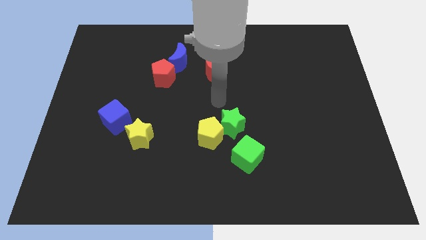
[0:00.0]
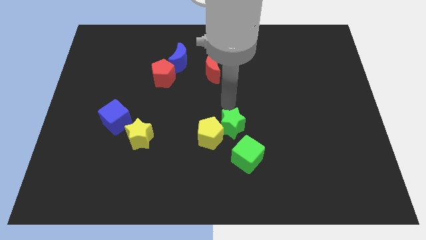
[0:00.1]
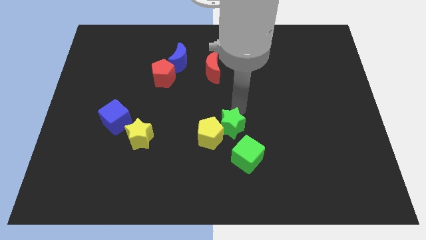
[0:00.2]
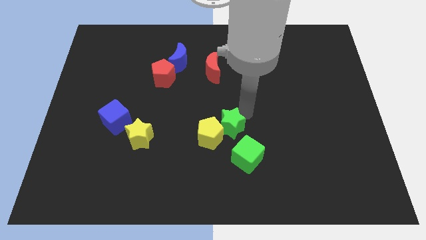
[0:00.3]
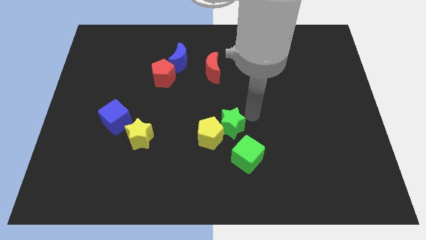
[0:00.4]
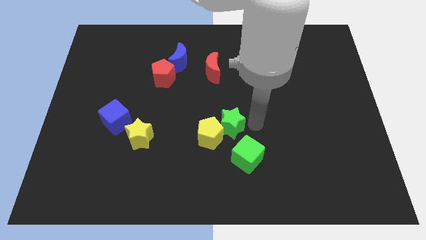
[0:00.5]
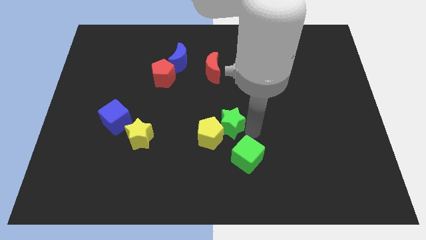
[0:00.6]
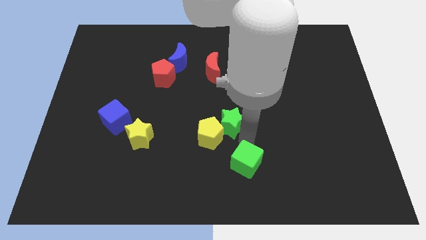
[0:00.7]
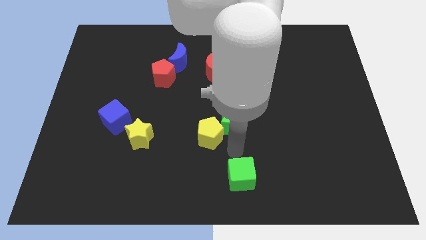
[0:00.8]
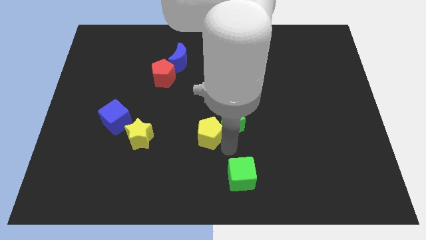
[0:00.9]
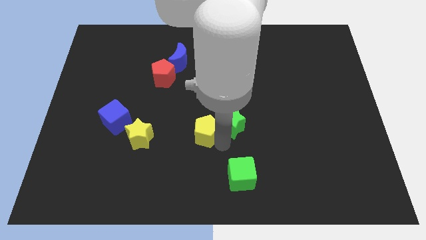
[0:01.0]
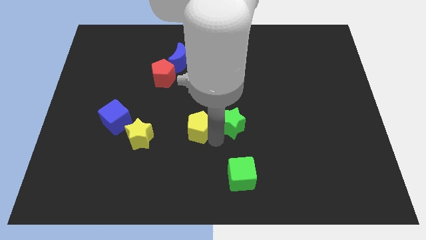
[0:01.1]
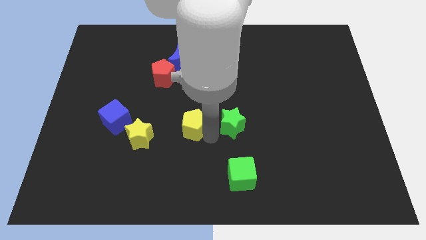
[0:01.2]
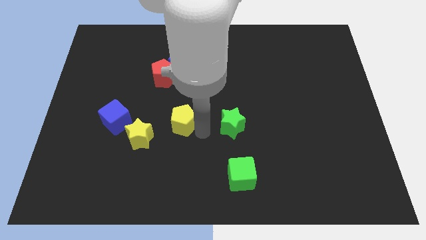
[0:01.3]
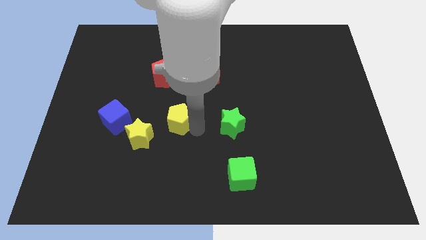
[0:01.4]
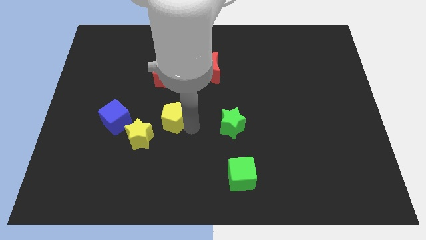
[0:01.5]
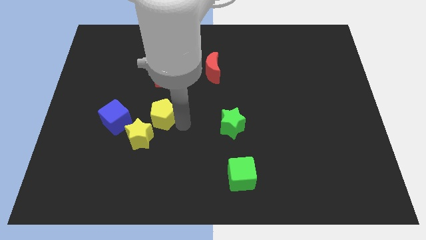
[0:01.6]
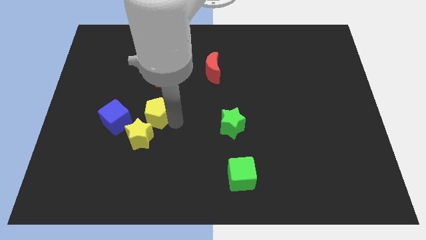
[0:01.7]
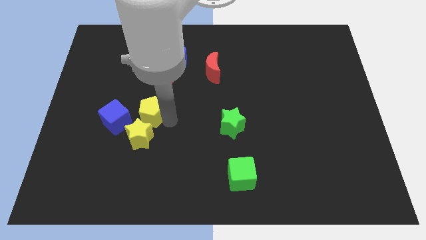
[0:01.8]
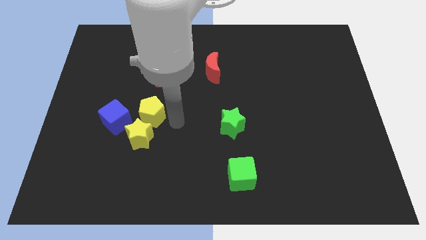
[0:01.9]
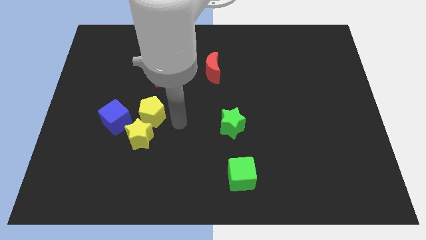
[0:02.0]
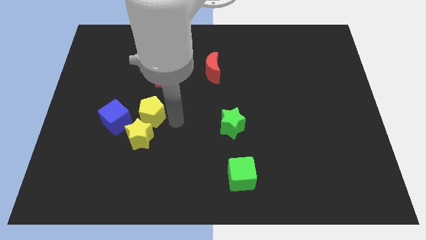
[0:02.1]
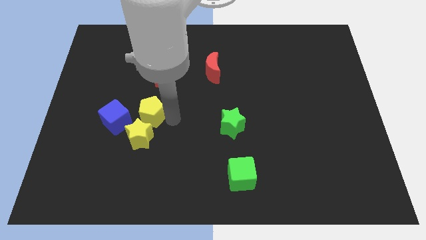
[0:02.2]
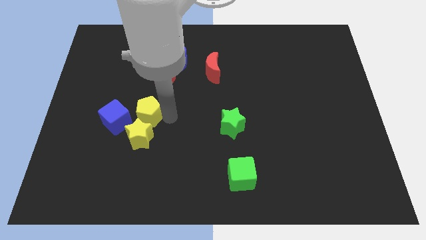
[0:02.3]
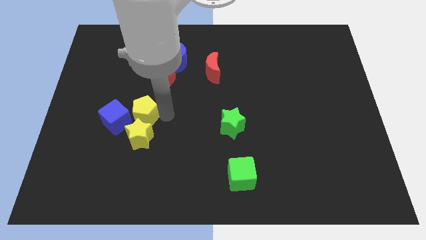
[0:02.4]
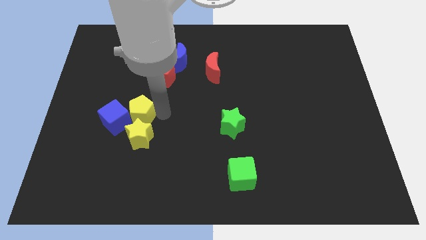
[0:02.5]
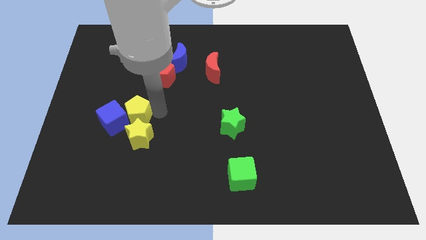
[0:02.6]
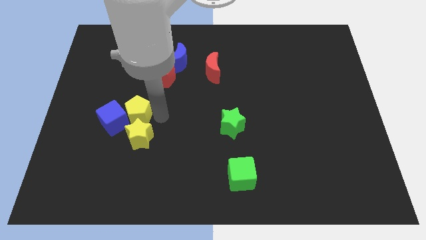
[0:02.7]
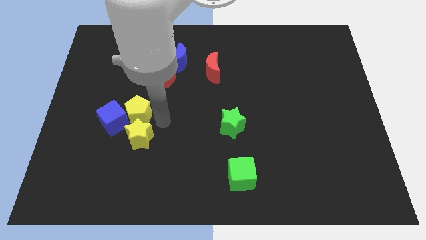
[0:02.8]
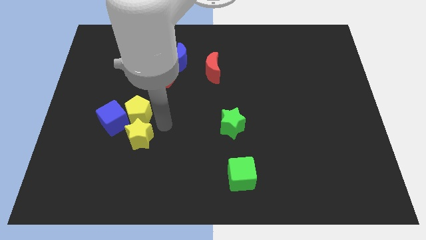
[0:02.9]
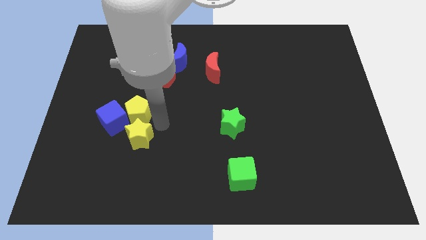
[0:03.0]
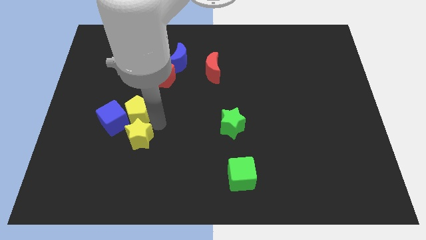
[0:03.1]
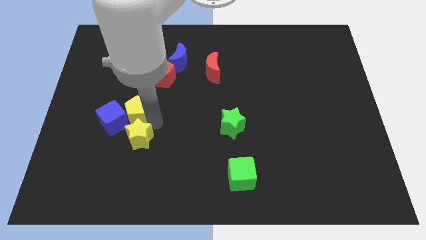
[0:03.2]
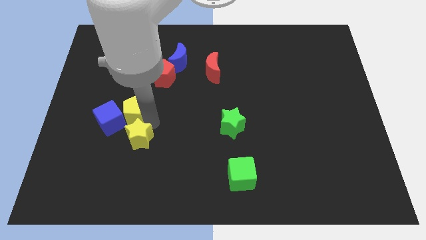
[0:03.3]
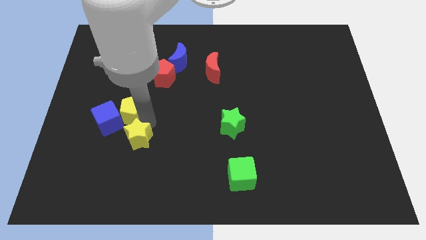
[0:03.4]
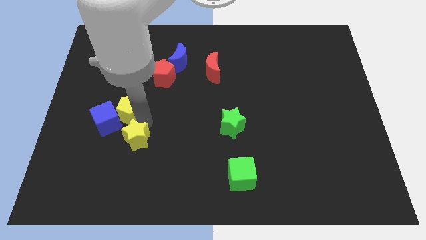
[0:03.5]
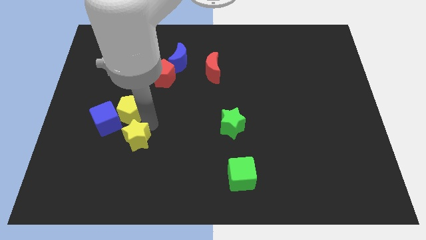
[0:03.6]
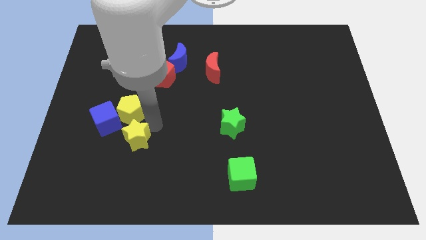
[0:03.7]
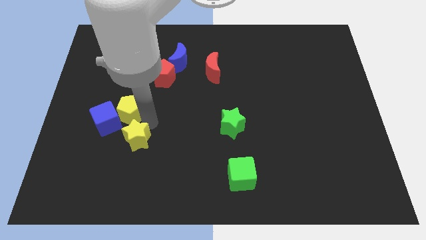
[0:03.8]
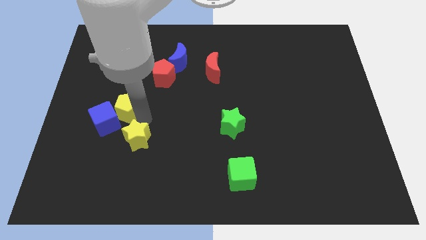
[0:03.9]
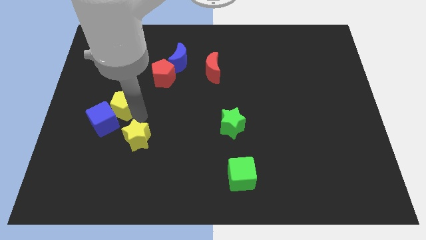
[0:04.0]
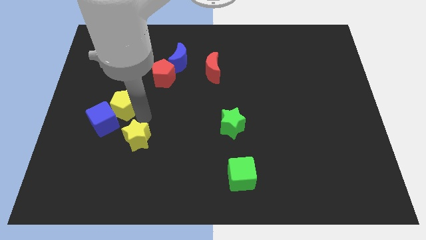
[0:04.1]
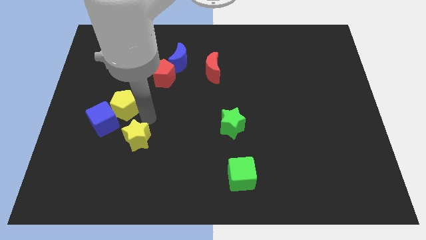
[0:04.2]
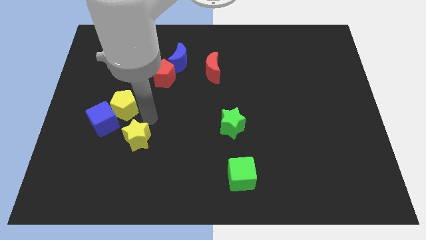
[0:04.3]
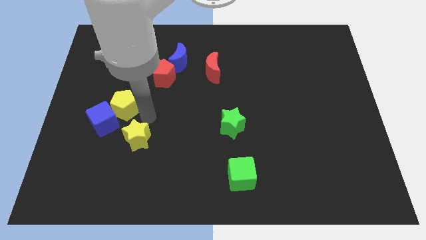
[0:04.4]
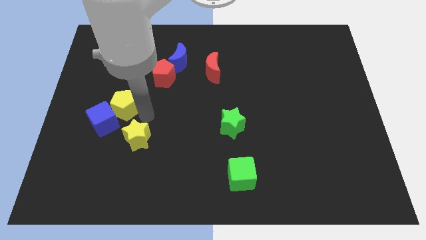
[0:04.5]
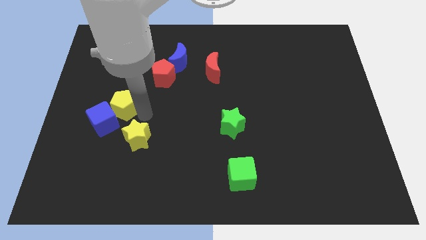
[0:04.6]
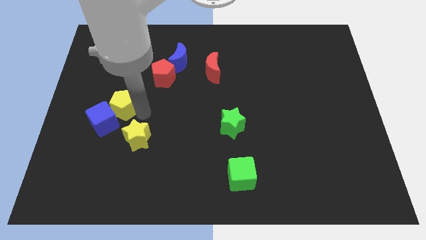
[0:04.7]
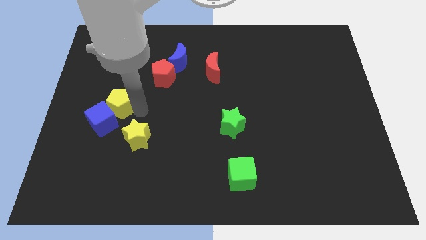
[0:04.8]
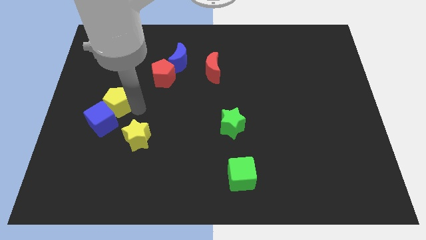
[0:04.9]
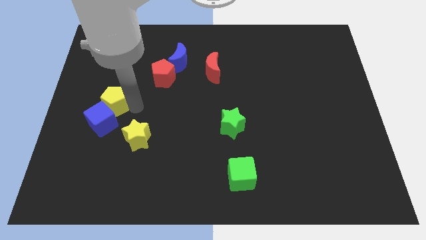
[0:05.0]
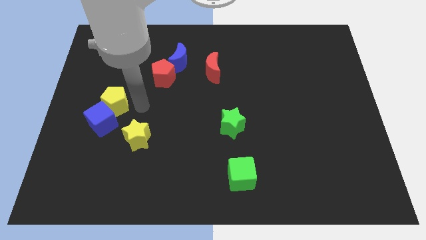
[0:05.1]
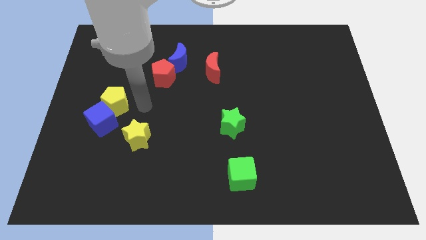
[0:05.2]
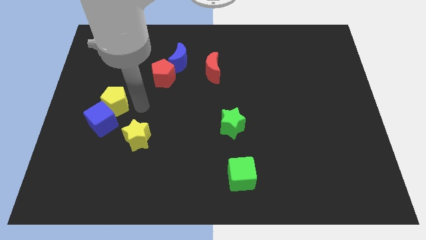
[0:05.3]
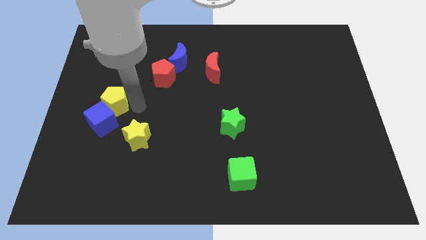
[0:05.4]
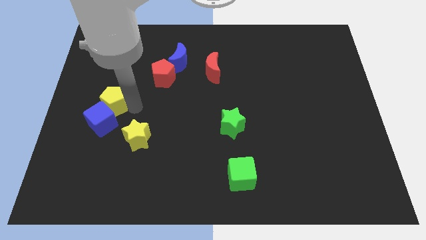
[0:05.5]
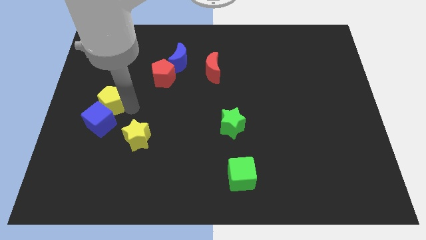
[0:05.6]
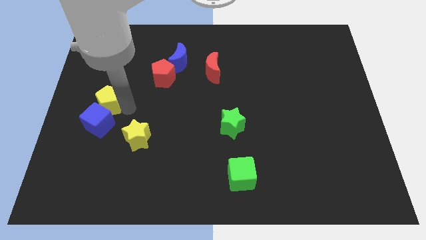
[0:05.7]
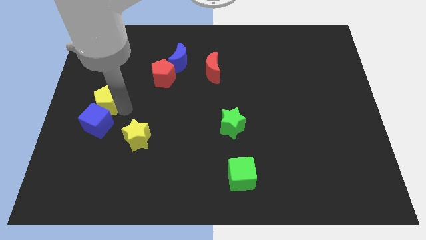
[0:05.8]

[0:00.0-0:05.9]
move the yellow pentagon to the center left

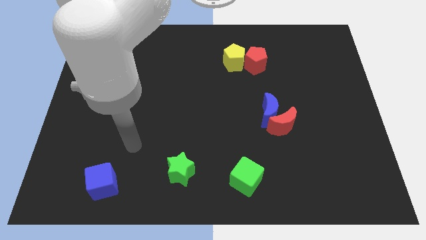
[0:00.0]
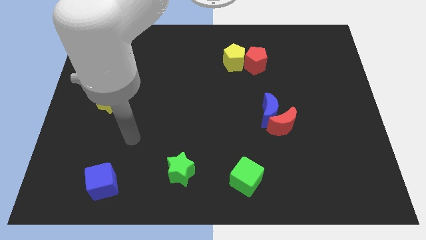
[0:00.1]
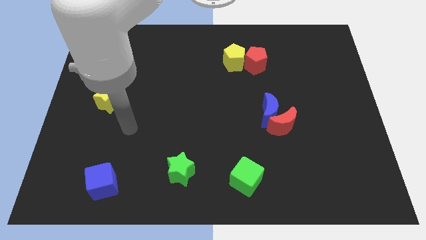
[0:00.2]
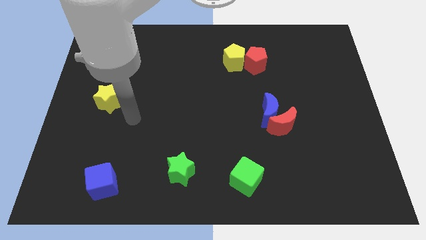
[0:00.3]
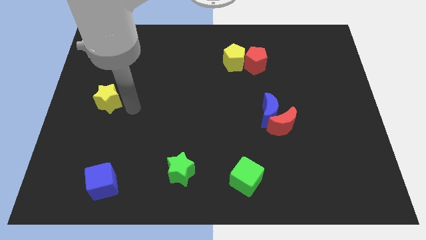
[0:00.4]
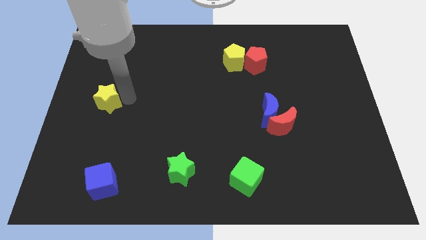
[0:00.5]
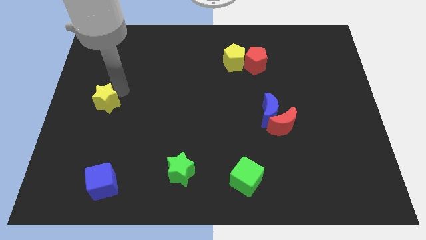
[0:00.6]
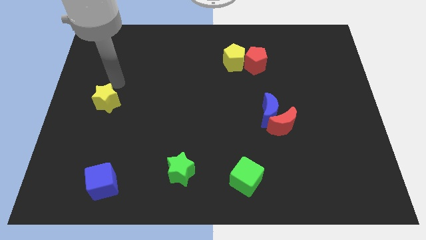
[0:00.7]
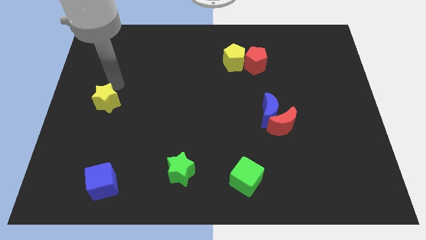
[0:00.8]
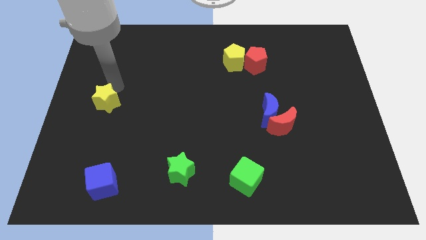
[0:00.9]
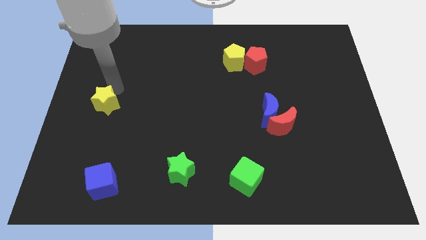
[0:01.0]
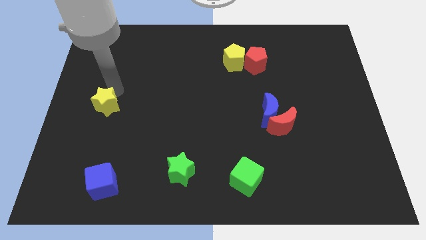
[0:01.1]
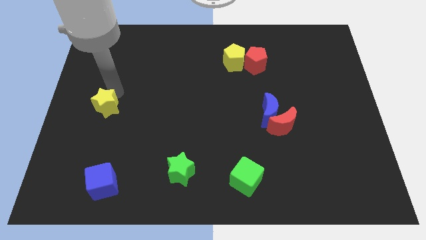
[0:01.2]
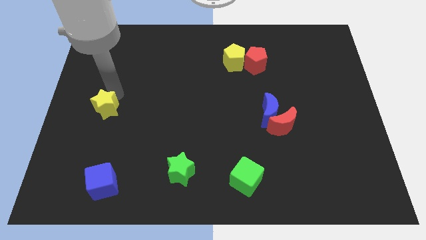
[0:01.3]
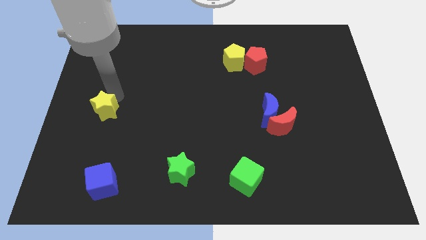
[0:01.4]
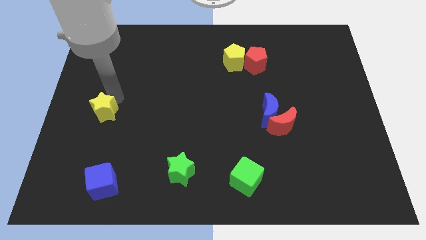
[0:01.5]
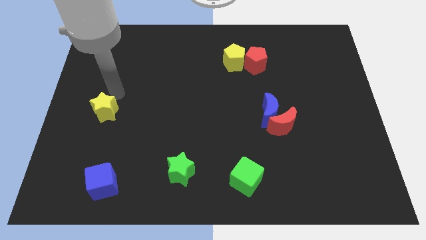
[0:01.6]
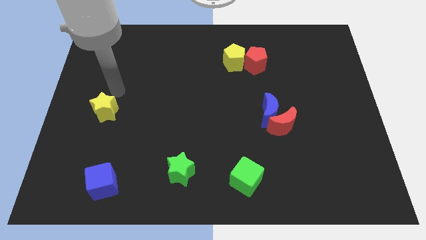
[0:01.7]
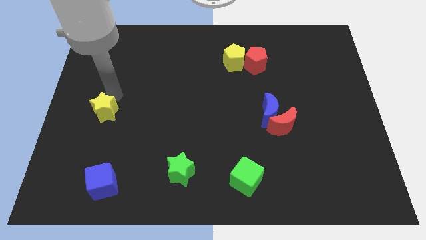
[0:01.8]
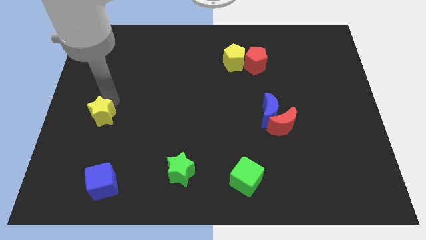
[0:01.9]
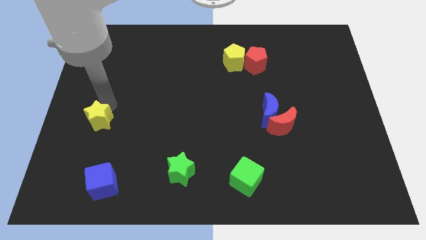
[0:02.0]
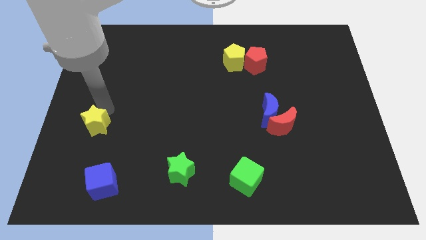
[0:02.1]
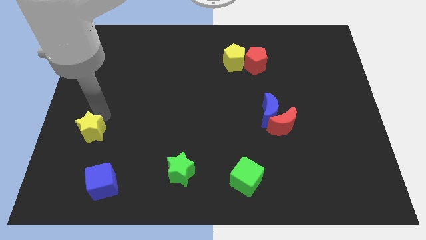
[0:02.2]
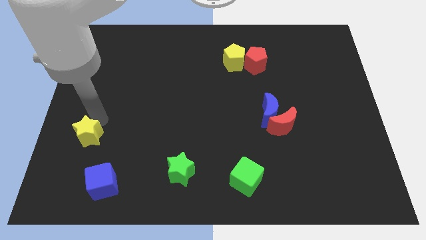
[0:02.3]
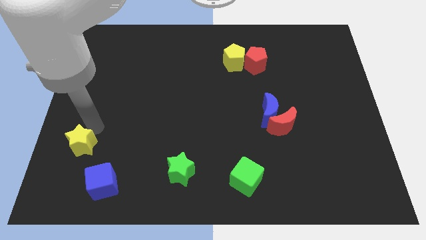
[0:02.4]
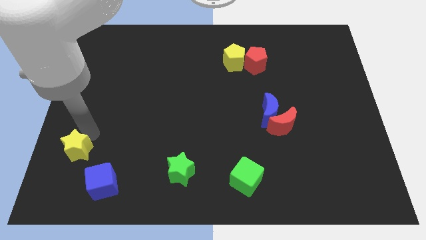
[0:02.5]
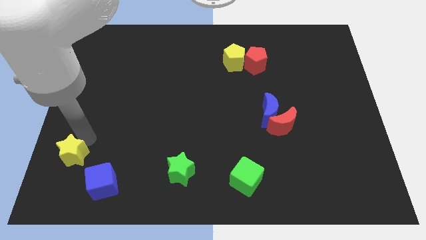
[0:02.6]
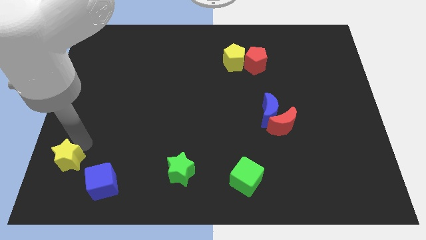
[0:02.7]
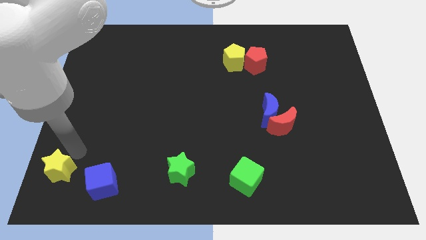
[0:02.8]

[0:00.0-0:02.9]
slide the yellow star to the bottom left
